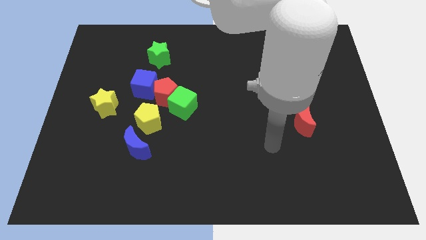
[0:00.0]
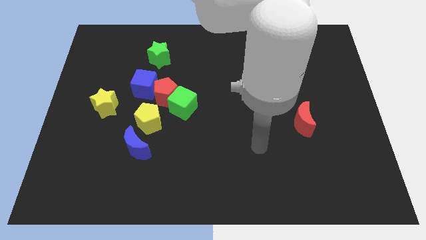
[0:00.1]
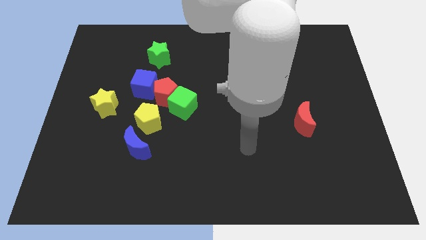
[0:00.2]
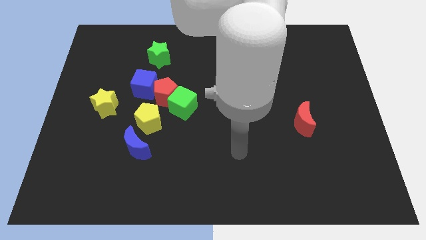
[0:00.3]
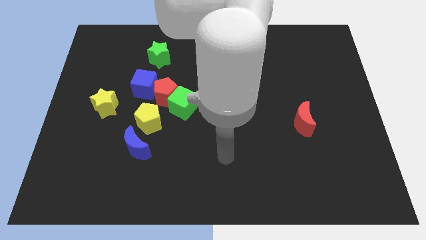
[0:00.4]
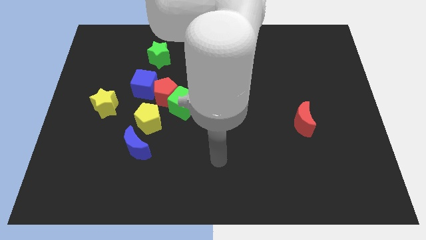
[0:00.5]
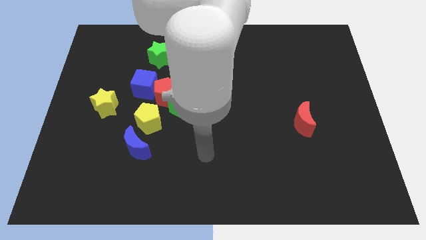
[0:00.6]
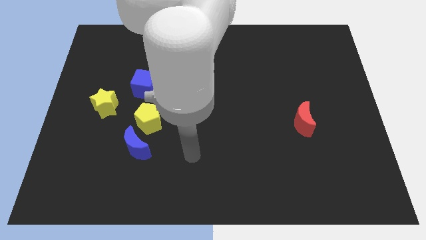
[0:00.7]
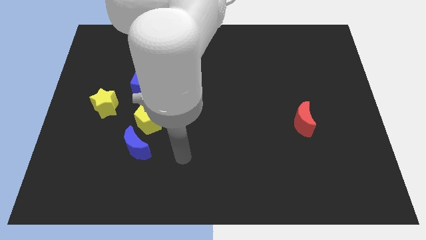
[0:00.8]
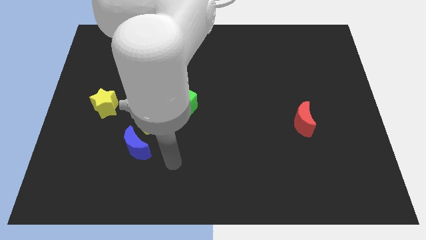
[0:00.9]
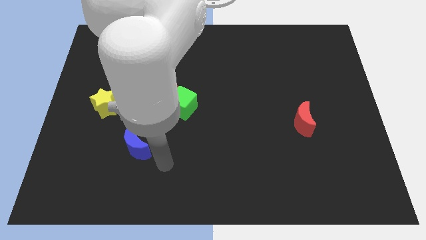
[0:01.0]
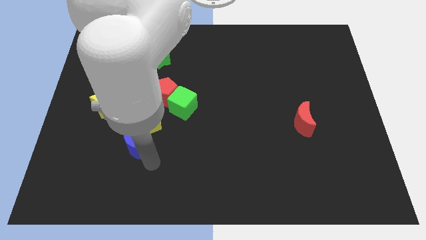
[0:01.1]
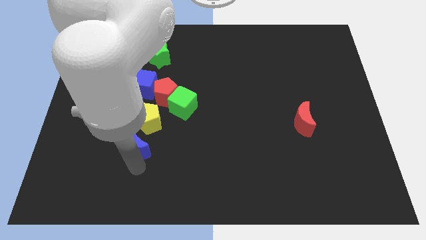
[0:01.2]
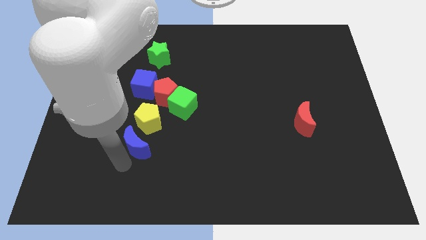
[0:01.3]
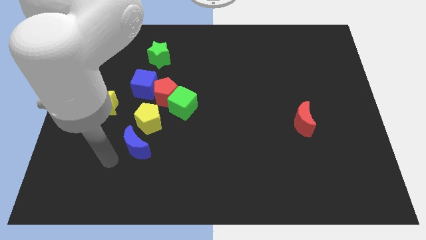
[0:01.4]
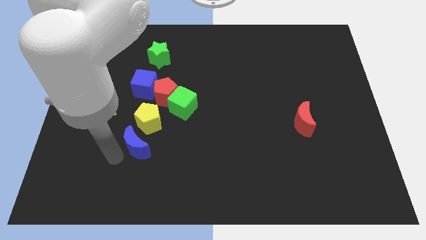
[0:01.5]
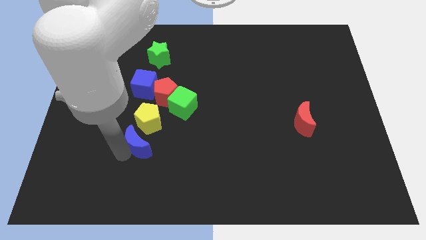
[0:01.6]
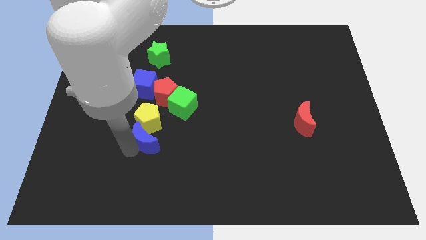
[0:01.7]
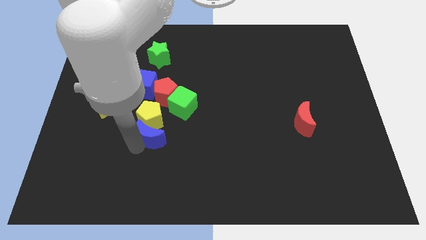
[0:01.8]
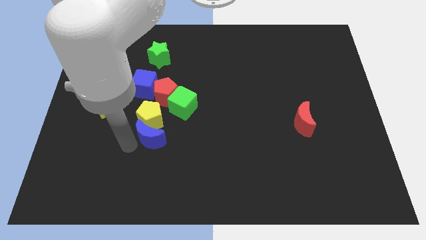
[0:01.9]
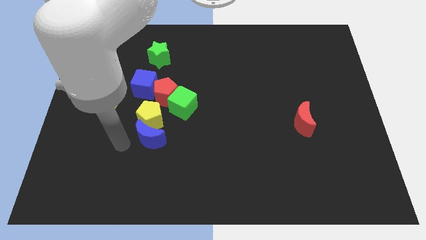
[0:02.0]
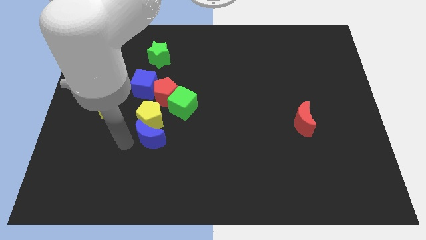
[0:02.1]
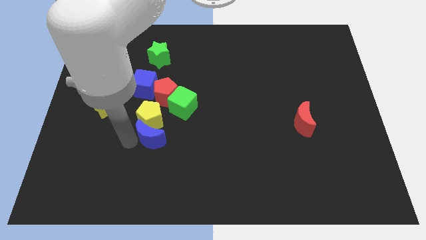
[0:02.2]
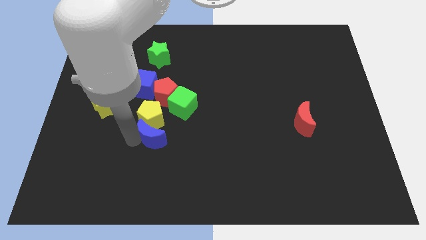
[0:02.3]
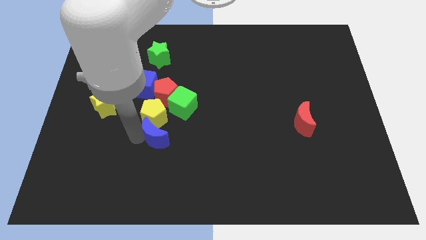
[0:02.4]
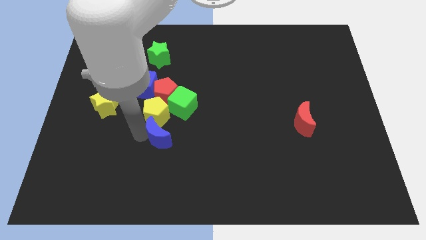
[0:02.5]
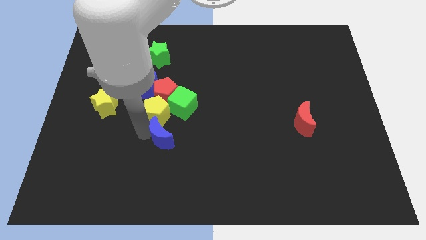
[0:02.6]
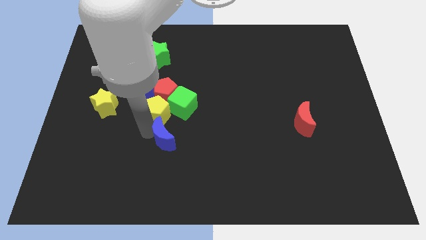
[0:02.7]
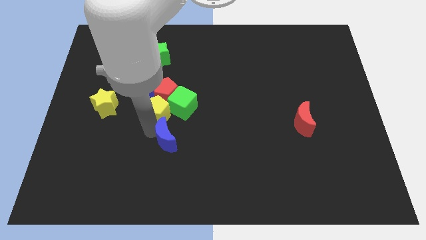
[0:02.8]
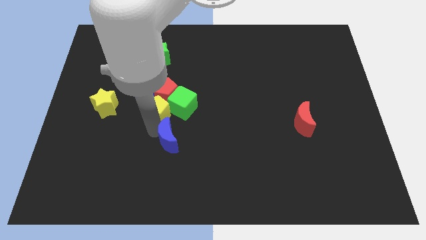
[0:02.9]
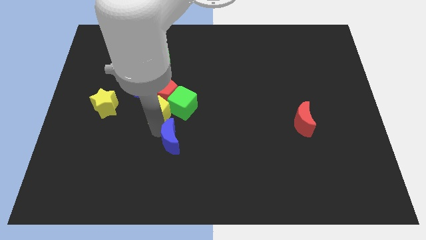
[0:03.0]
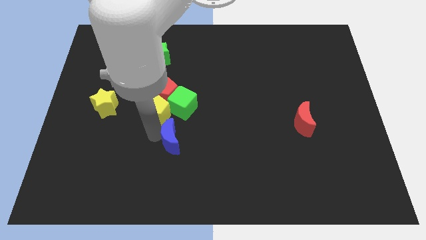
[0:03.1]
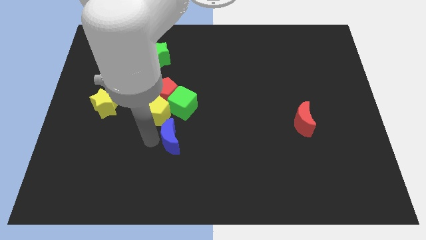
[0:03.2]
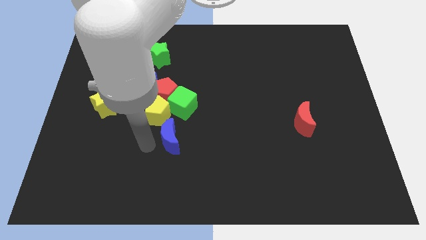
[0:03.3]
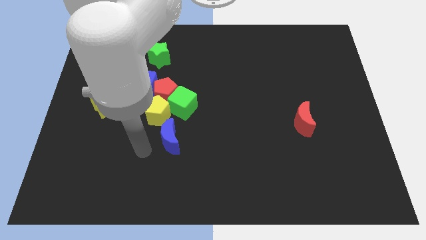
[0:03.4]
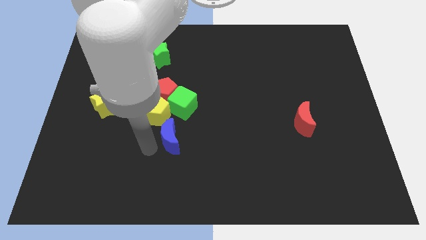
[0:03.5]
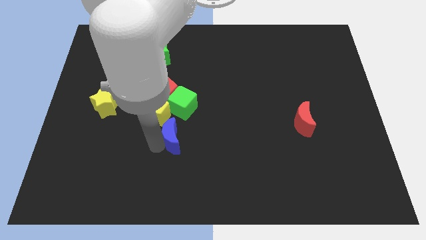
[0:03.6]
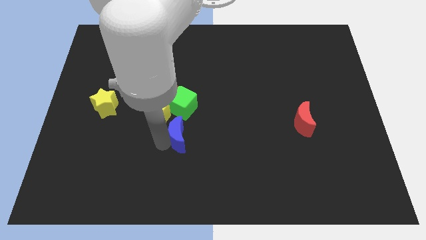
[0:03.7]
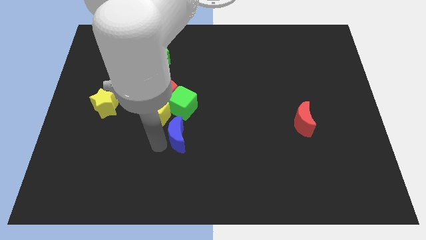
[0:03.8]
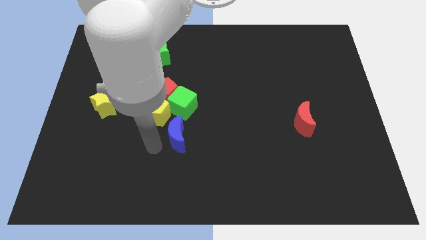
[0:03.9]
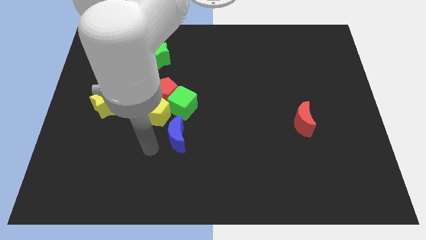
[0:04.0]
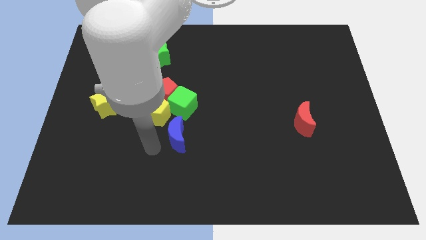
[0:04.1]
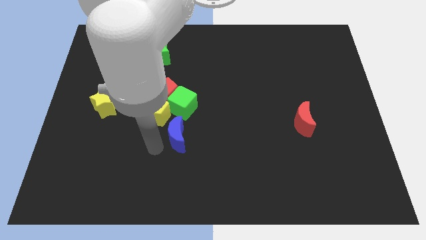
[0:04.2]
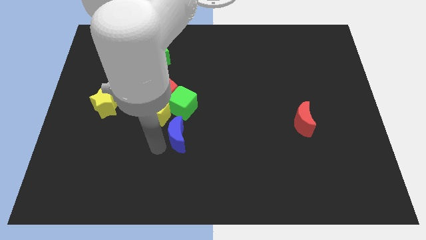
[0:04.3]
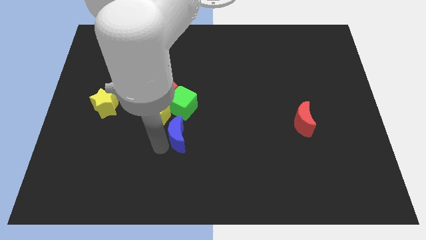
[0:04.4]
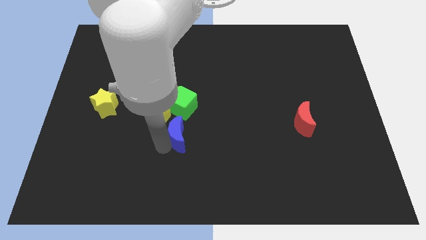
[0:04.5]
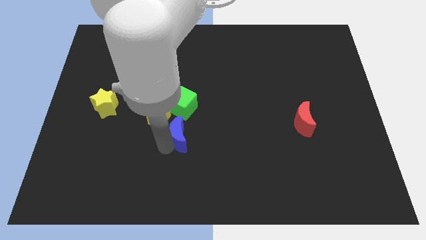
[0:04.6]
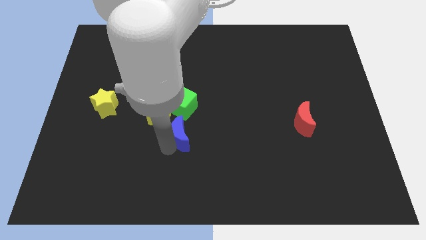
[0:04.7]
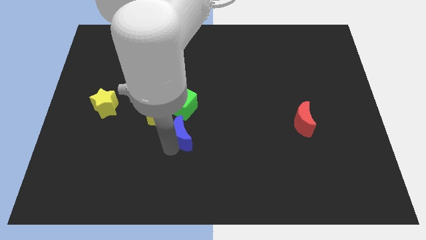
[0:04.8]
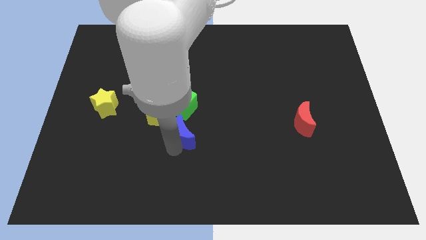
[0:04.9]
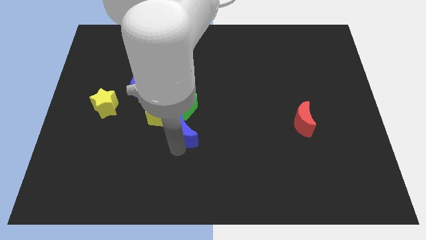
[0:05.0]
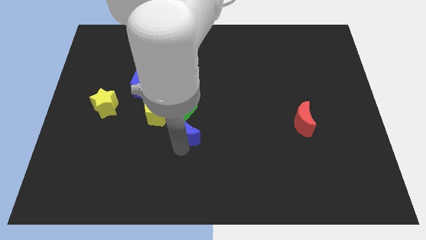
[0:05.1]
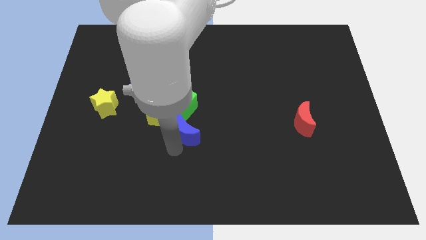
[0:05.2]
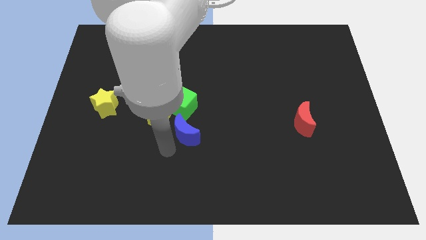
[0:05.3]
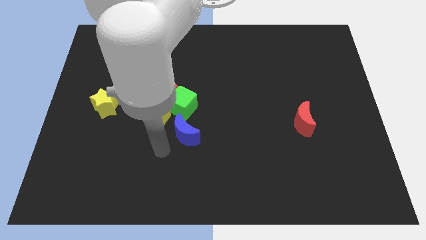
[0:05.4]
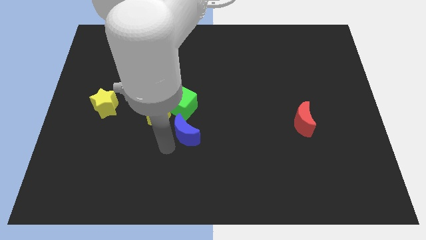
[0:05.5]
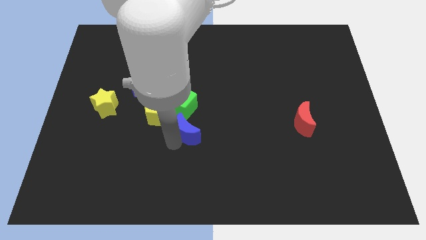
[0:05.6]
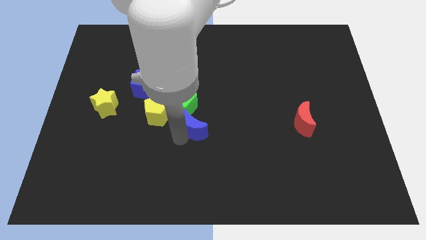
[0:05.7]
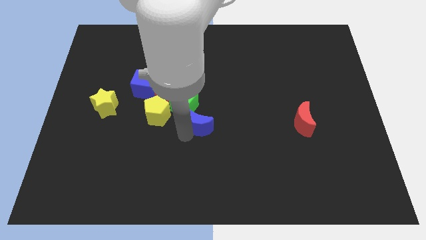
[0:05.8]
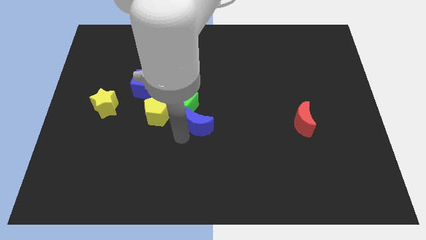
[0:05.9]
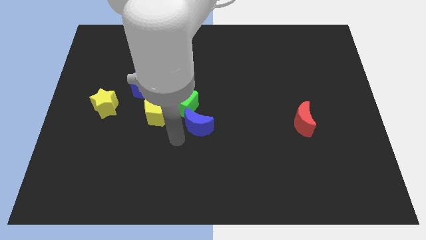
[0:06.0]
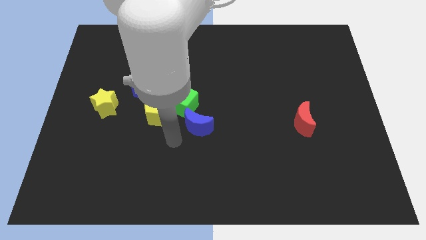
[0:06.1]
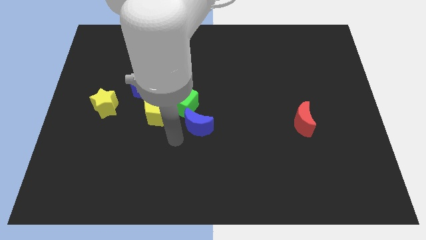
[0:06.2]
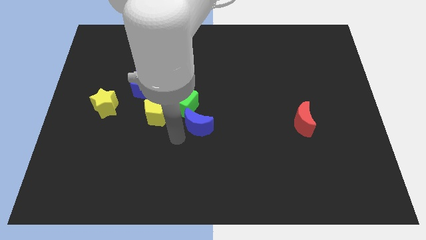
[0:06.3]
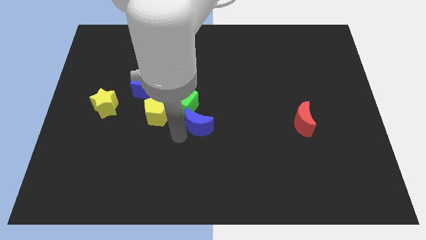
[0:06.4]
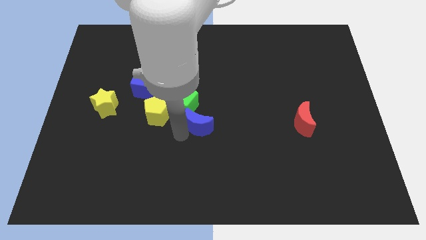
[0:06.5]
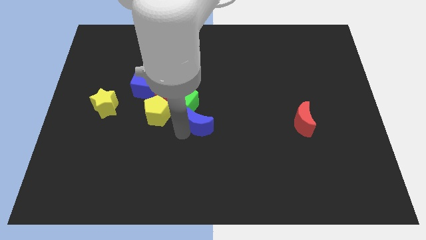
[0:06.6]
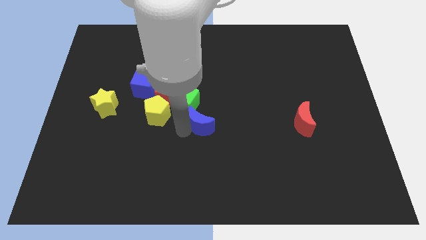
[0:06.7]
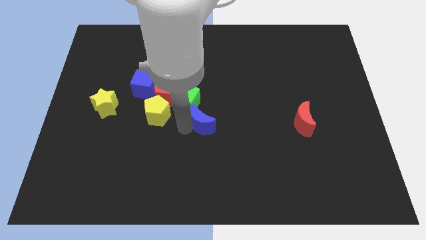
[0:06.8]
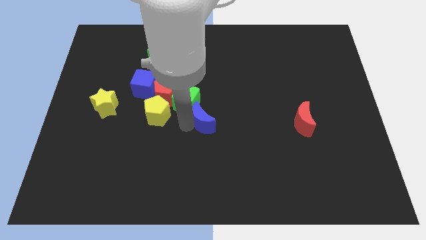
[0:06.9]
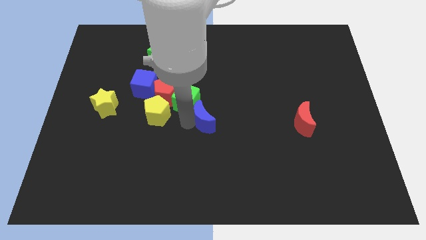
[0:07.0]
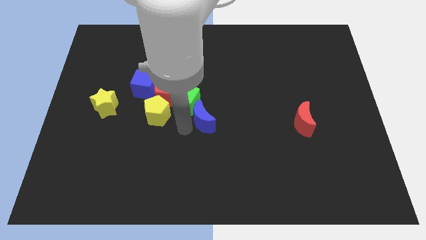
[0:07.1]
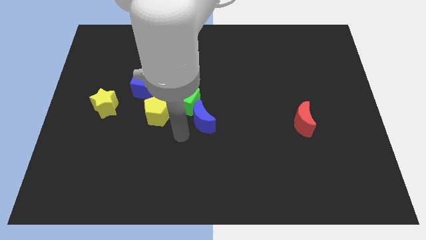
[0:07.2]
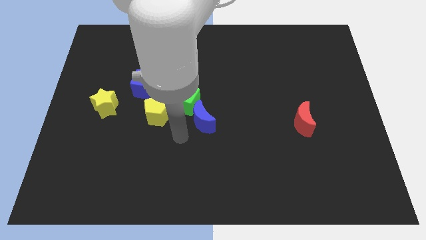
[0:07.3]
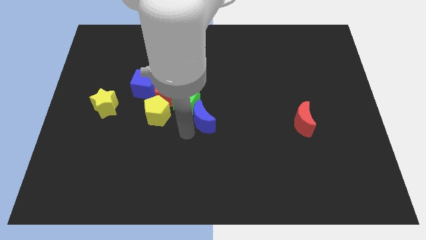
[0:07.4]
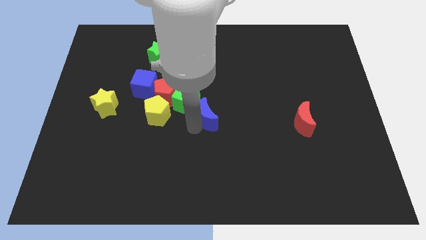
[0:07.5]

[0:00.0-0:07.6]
push the blue moon just right of the green cube
